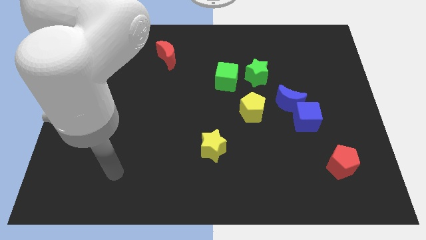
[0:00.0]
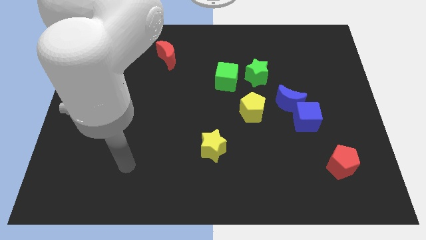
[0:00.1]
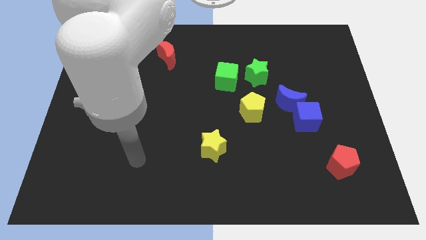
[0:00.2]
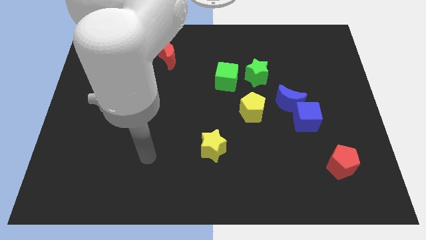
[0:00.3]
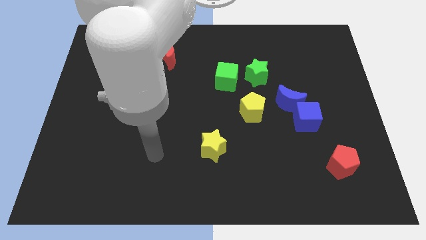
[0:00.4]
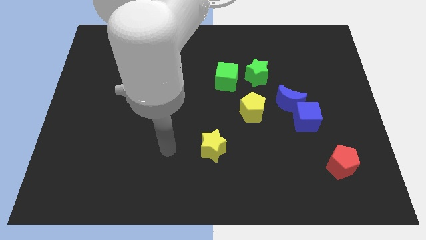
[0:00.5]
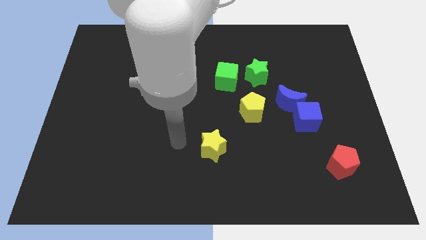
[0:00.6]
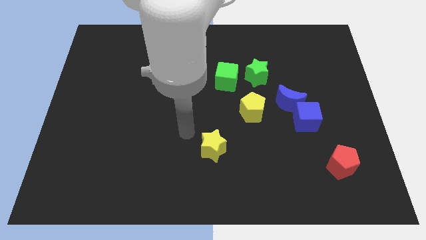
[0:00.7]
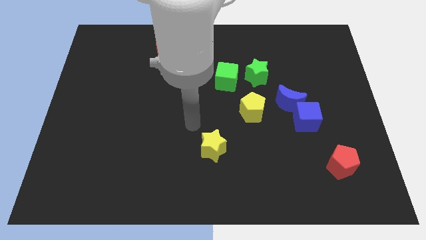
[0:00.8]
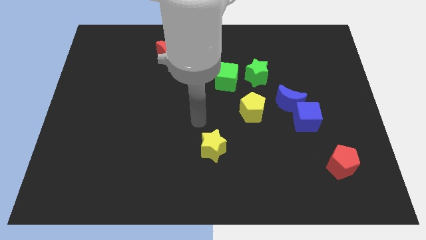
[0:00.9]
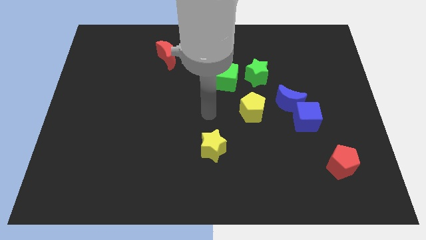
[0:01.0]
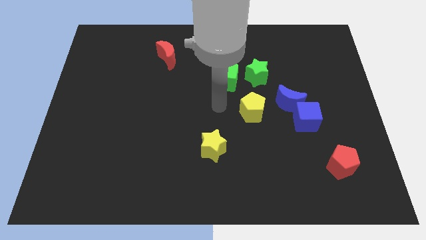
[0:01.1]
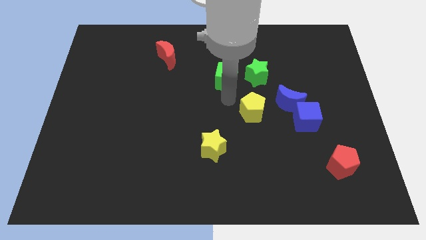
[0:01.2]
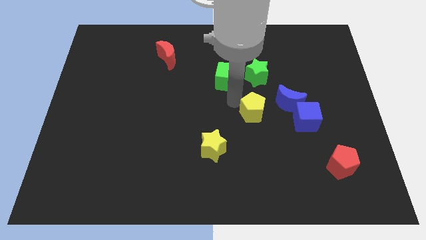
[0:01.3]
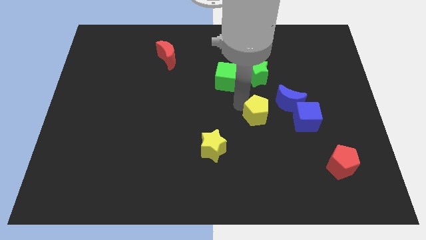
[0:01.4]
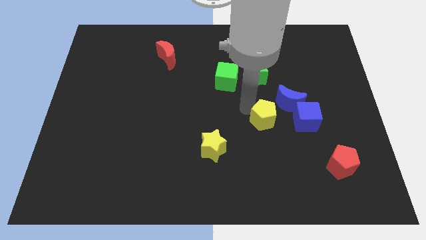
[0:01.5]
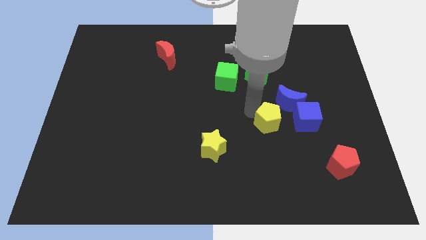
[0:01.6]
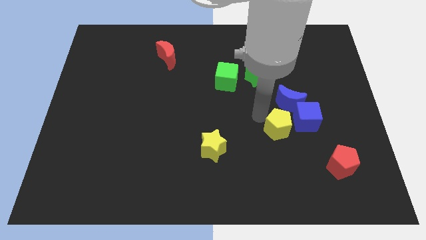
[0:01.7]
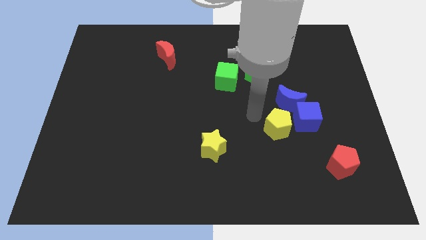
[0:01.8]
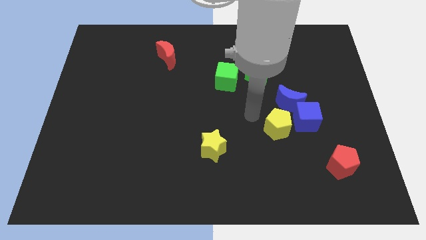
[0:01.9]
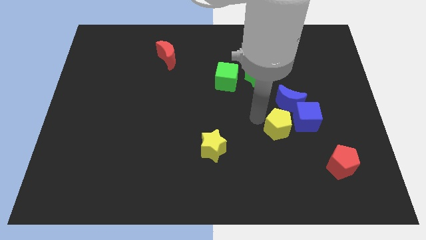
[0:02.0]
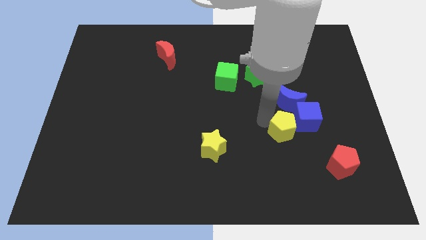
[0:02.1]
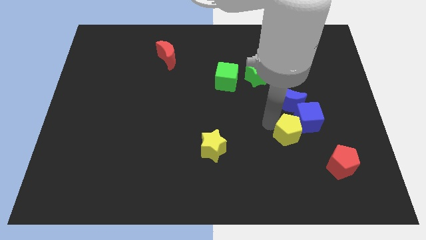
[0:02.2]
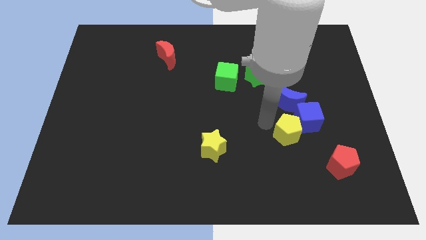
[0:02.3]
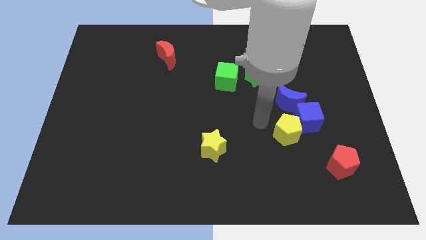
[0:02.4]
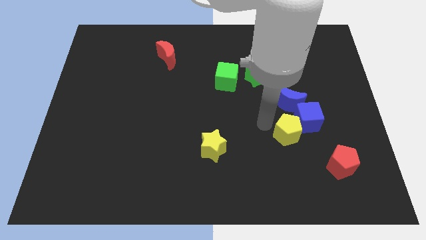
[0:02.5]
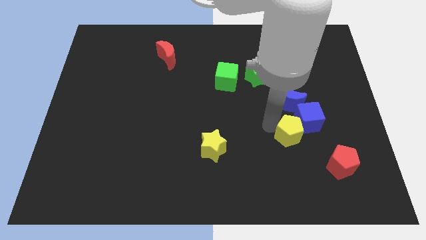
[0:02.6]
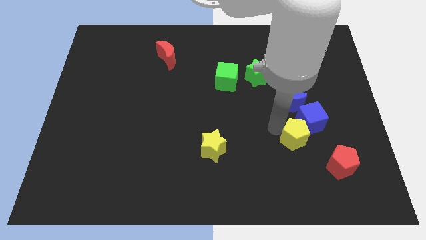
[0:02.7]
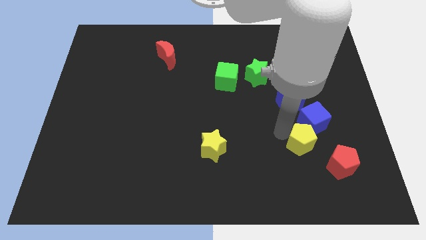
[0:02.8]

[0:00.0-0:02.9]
slightly move the yellow pentagon right

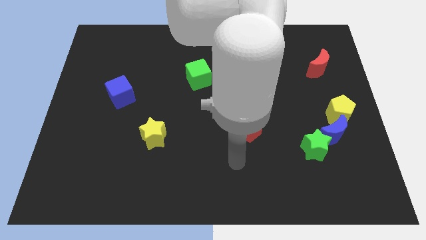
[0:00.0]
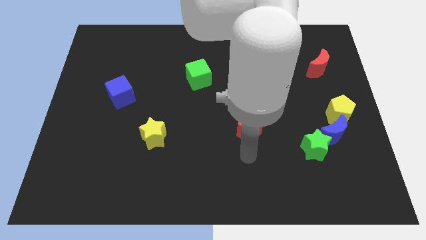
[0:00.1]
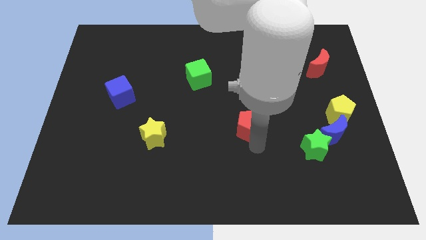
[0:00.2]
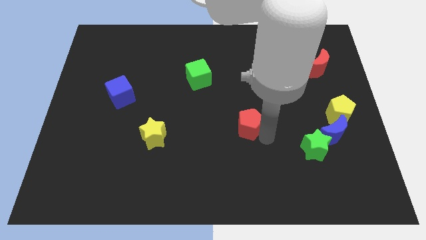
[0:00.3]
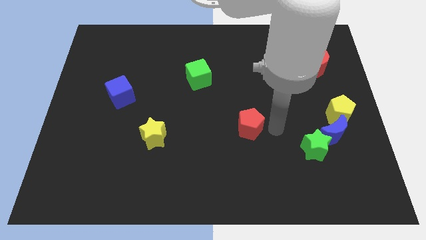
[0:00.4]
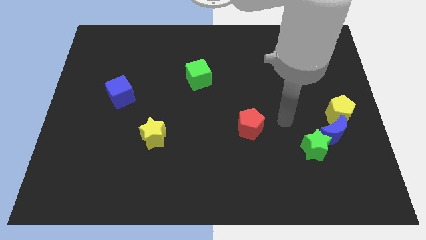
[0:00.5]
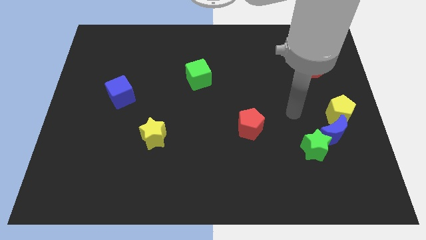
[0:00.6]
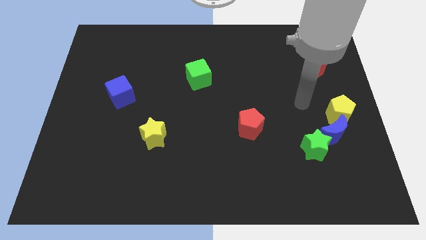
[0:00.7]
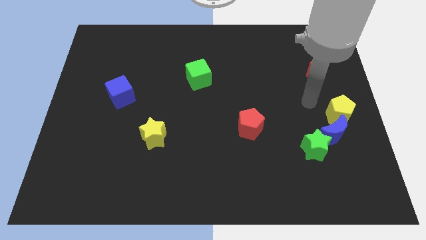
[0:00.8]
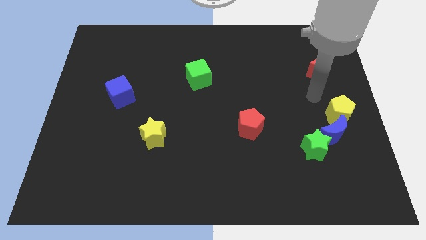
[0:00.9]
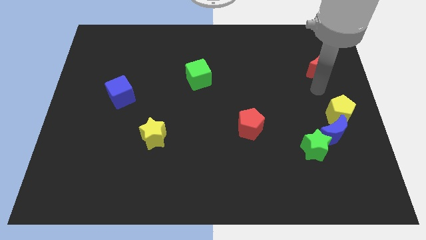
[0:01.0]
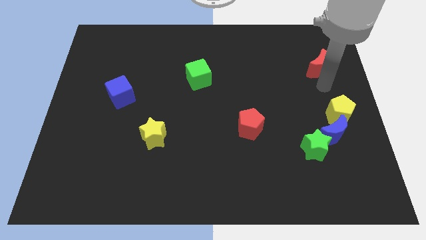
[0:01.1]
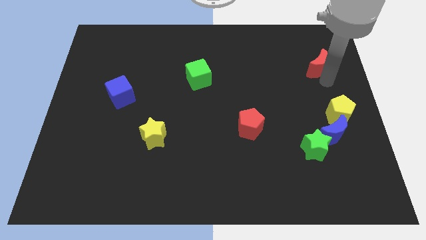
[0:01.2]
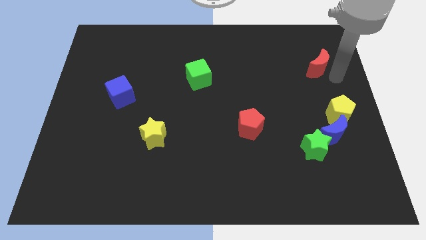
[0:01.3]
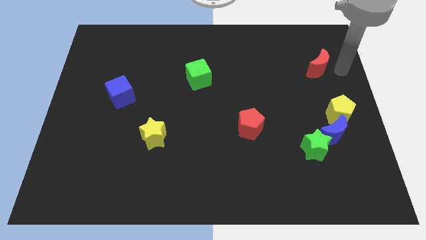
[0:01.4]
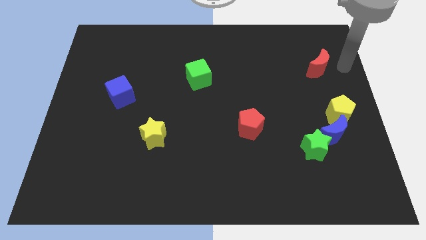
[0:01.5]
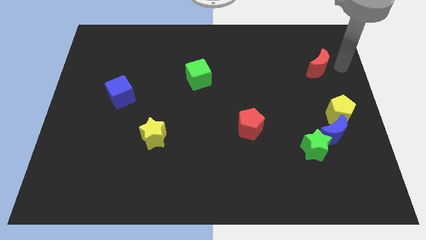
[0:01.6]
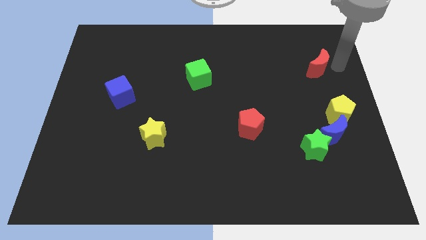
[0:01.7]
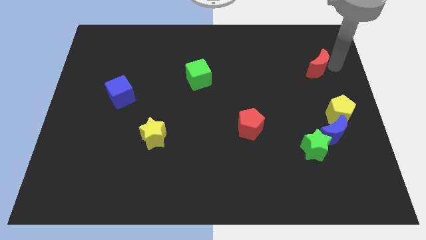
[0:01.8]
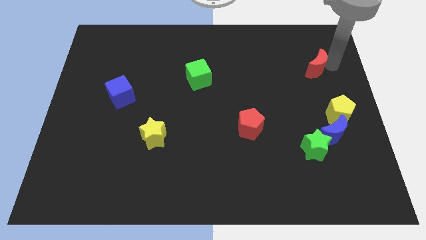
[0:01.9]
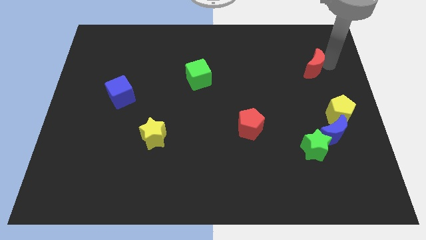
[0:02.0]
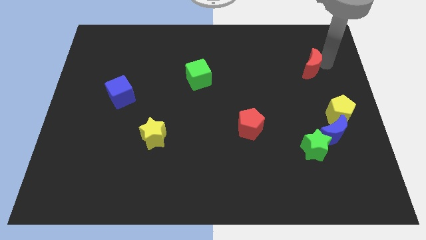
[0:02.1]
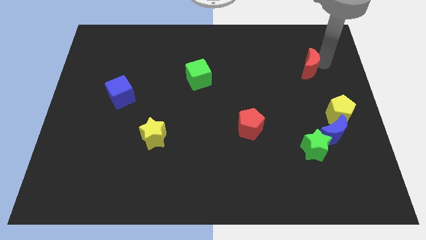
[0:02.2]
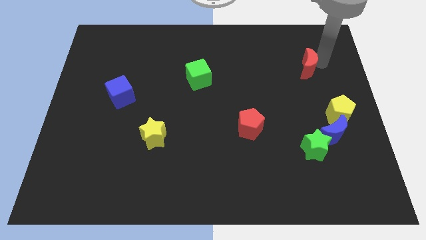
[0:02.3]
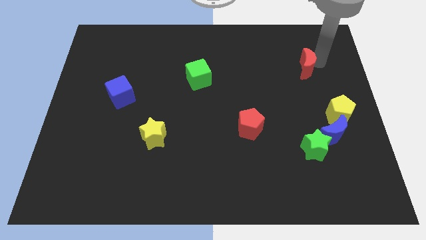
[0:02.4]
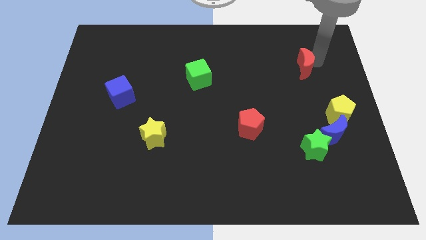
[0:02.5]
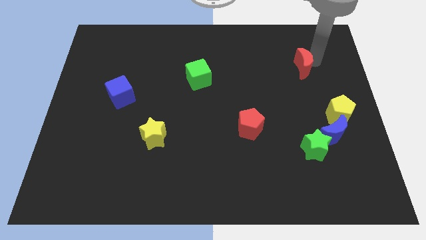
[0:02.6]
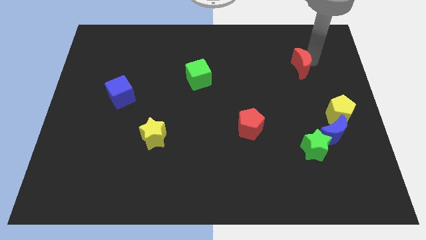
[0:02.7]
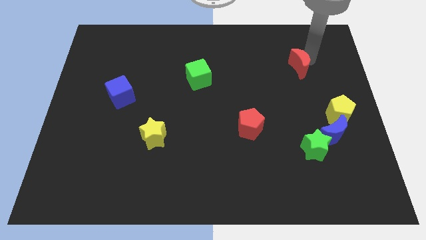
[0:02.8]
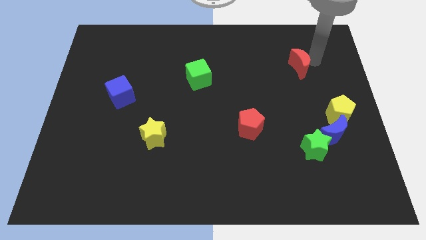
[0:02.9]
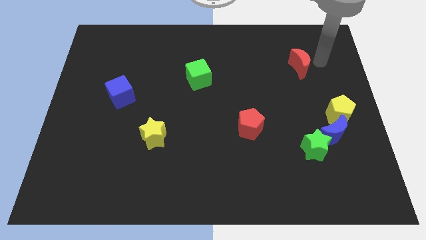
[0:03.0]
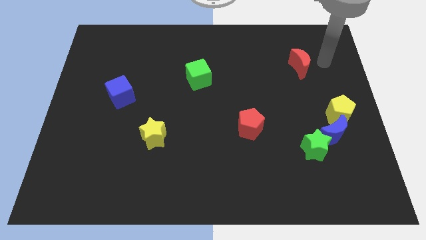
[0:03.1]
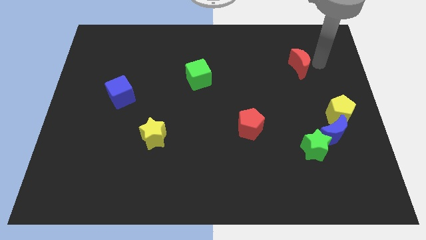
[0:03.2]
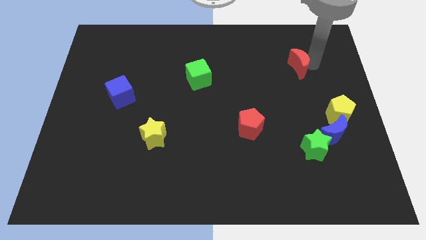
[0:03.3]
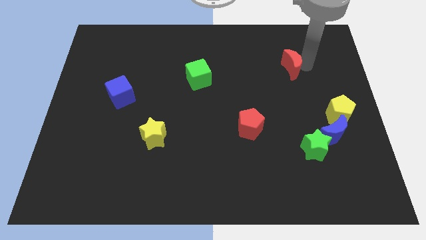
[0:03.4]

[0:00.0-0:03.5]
slightly move the red moon to the left

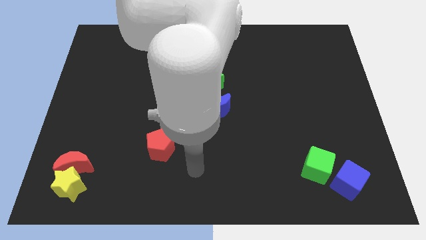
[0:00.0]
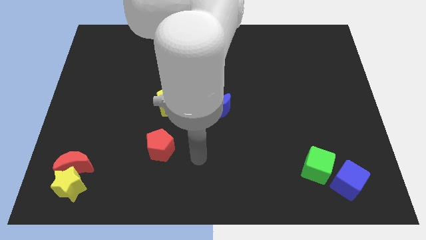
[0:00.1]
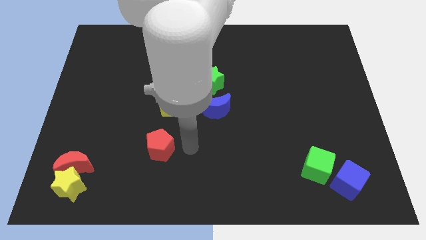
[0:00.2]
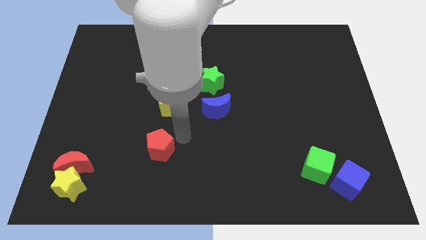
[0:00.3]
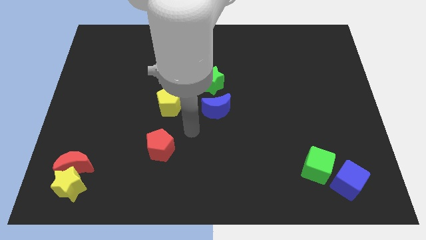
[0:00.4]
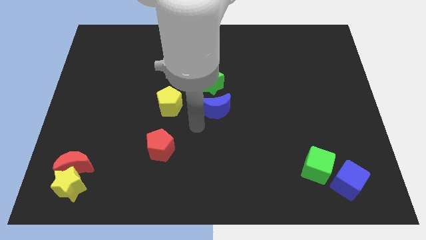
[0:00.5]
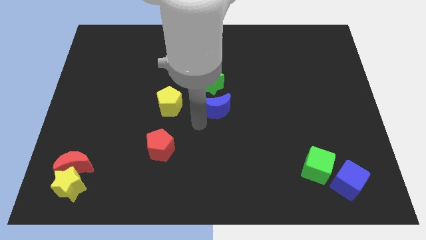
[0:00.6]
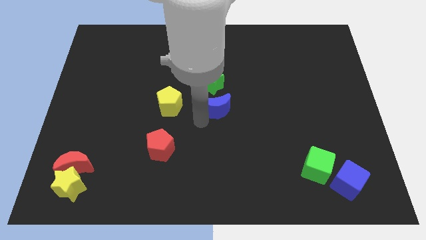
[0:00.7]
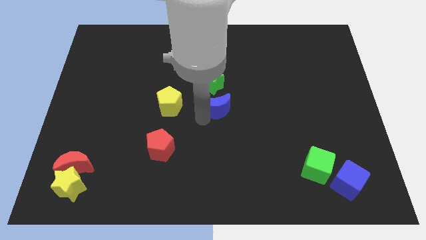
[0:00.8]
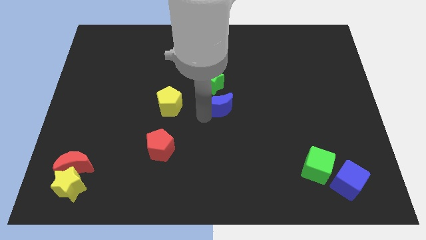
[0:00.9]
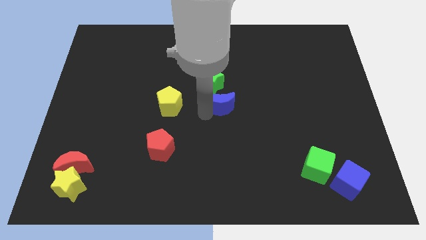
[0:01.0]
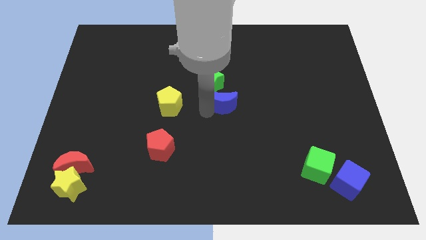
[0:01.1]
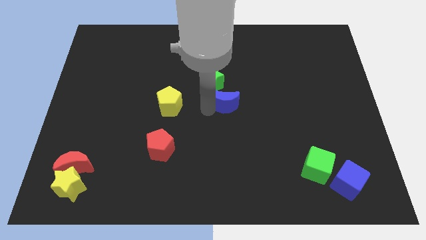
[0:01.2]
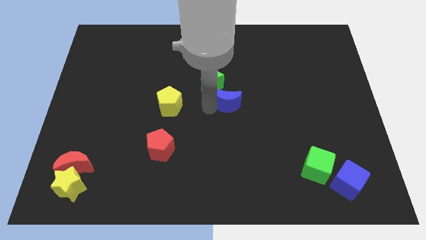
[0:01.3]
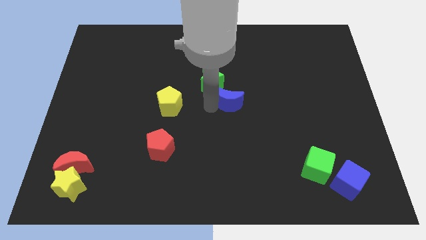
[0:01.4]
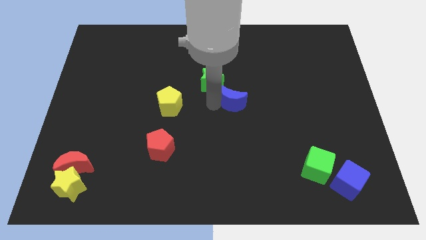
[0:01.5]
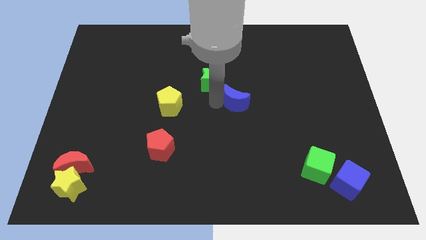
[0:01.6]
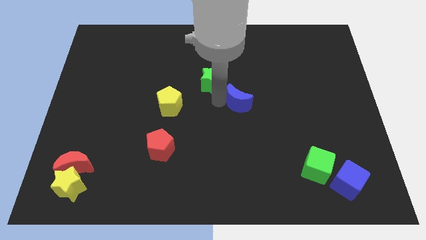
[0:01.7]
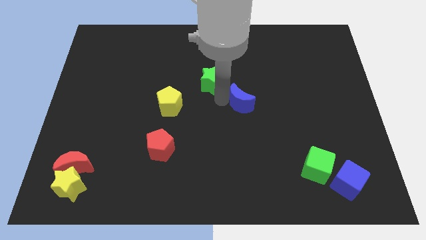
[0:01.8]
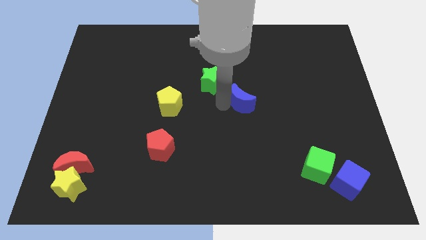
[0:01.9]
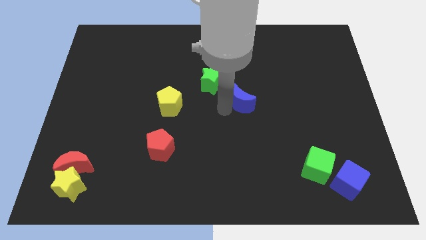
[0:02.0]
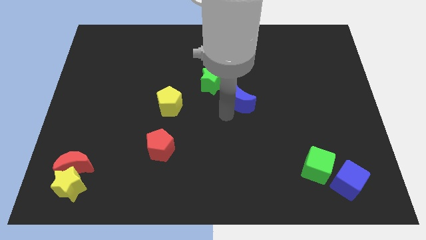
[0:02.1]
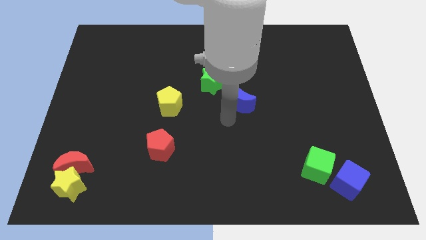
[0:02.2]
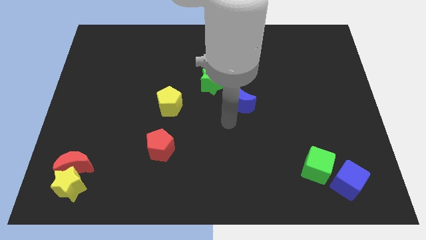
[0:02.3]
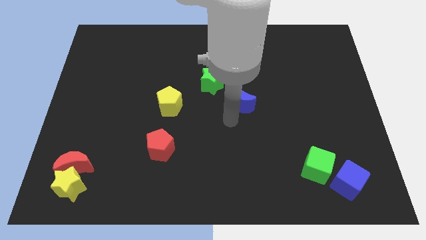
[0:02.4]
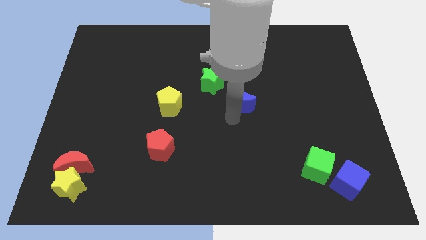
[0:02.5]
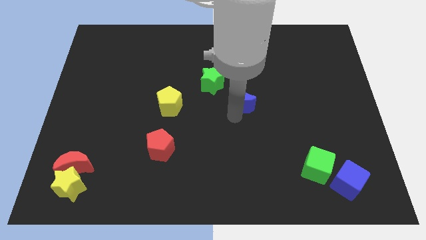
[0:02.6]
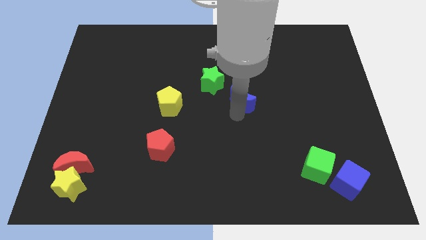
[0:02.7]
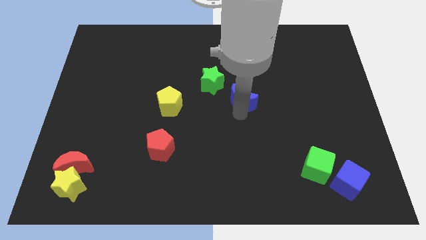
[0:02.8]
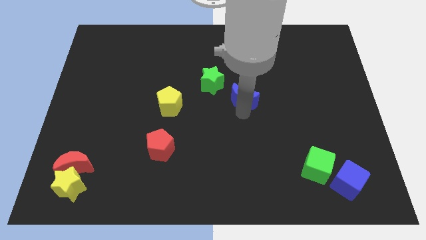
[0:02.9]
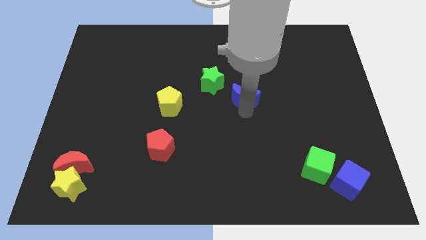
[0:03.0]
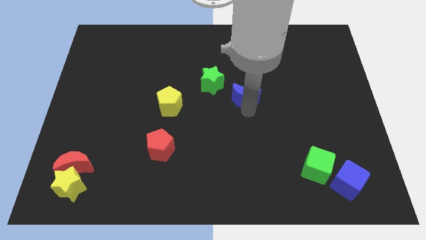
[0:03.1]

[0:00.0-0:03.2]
move the blue moon a little bit upwards and to the right
